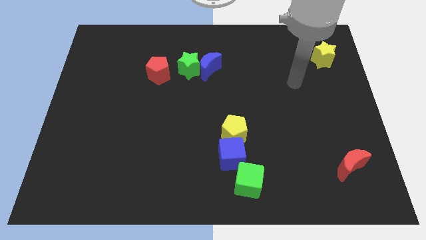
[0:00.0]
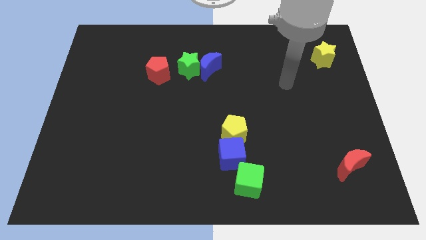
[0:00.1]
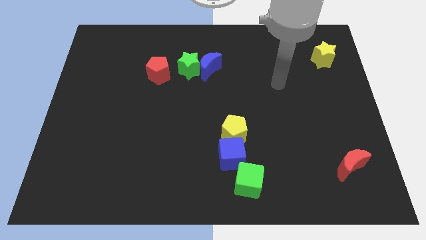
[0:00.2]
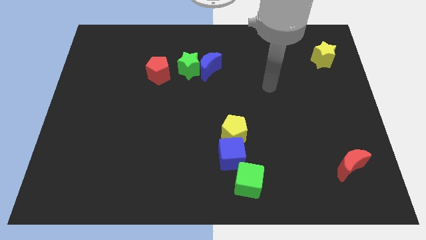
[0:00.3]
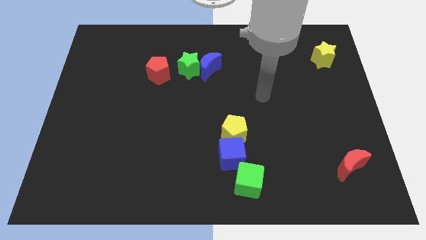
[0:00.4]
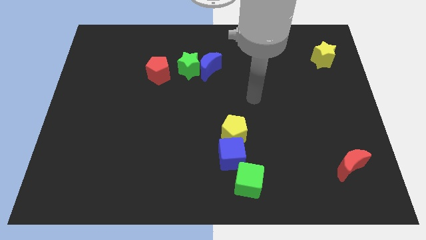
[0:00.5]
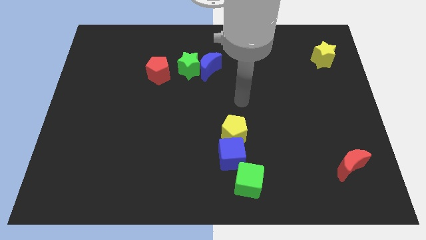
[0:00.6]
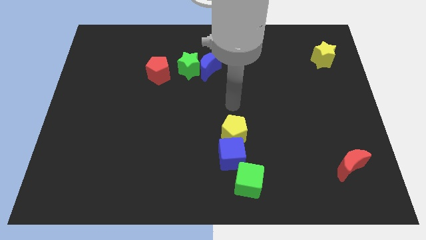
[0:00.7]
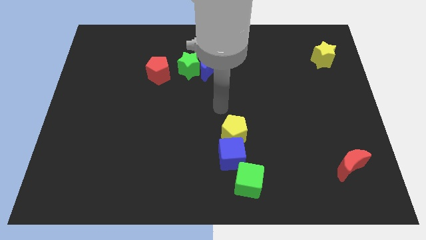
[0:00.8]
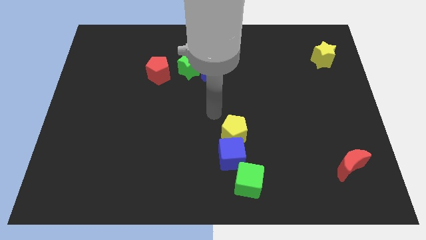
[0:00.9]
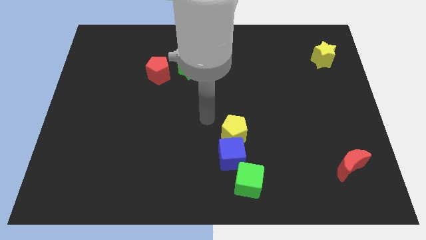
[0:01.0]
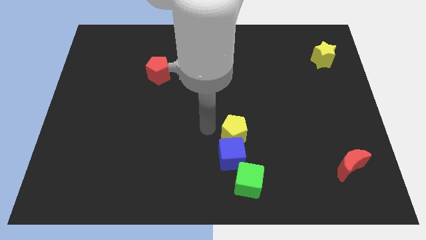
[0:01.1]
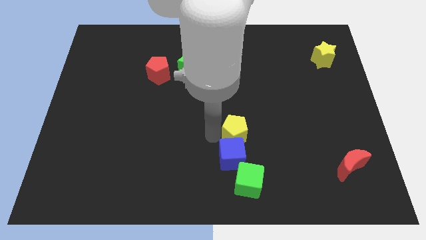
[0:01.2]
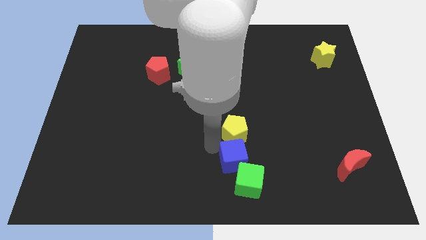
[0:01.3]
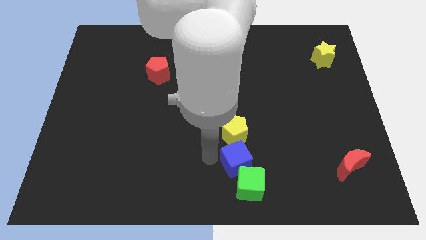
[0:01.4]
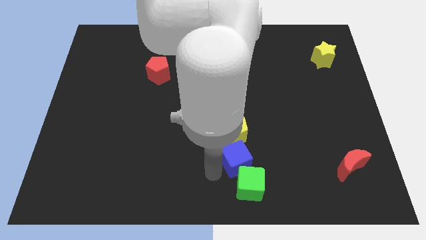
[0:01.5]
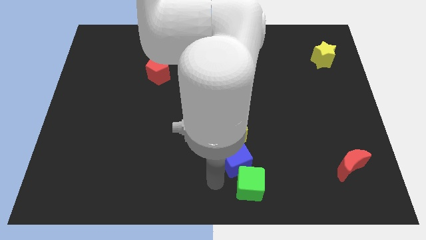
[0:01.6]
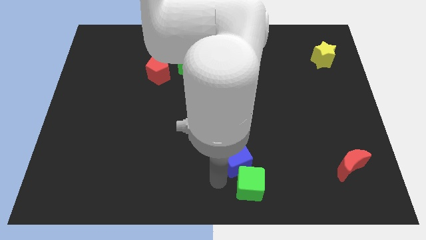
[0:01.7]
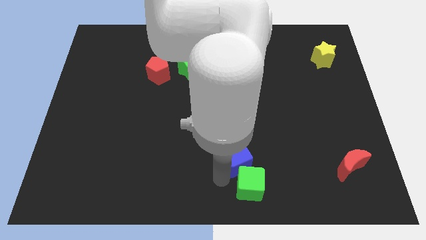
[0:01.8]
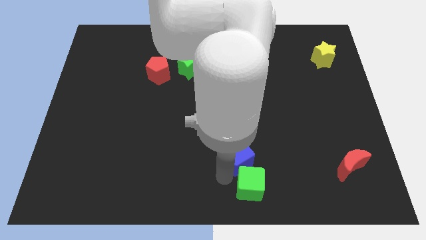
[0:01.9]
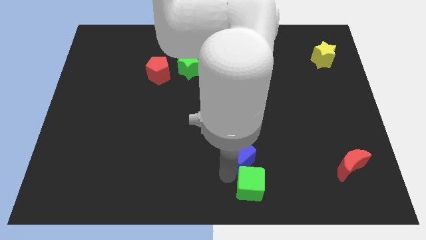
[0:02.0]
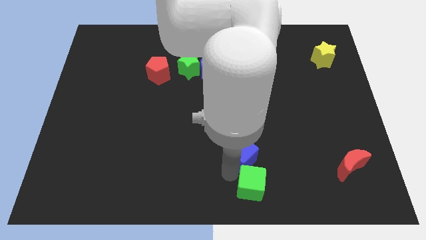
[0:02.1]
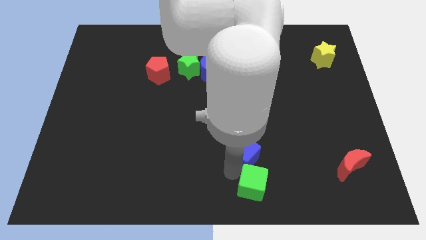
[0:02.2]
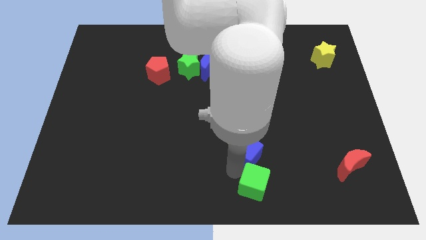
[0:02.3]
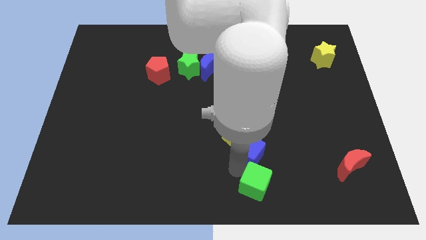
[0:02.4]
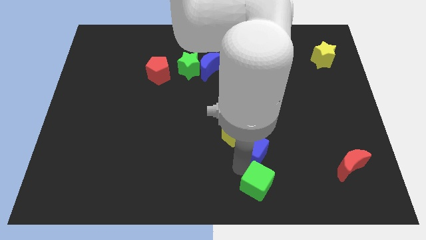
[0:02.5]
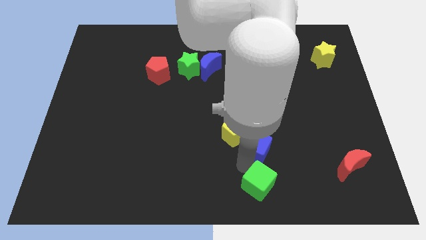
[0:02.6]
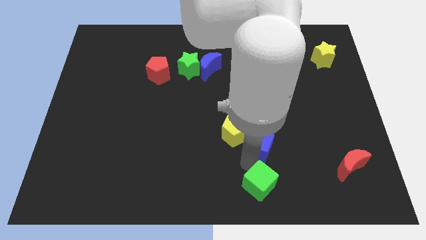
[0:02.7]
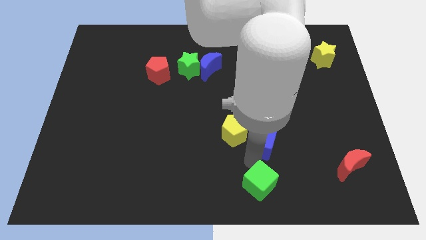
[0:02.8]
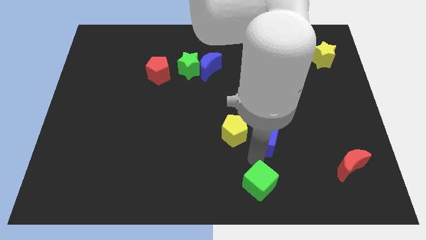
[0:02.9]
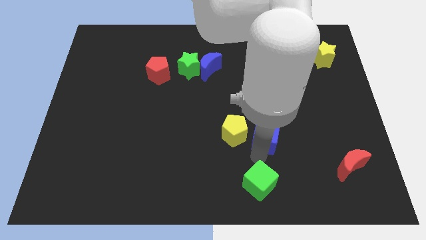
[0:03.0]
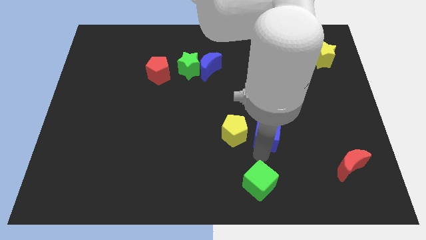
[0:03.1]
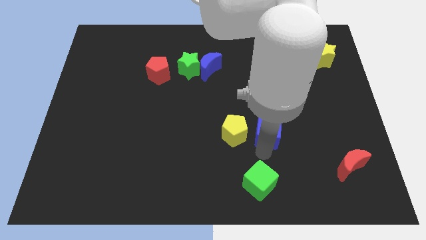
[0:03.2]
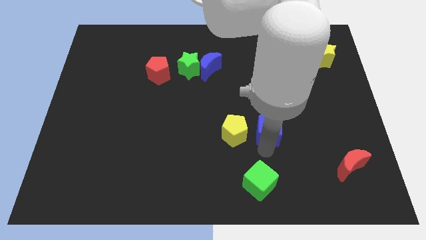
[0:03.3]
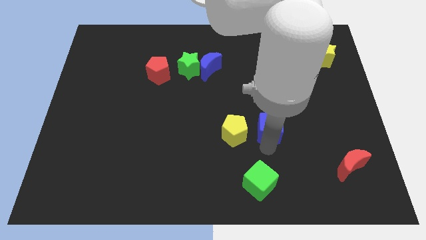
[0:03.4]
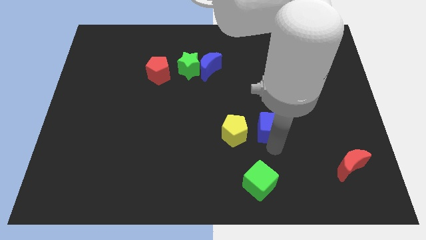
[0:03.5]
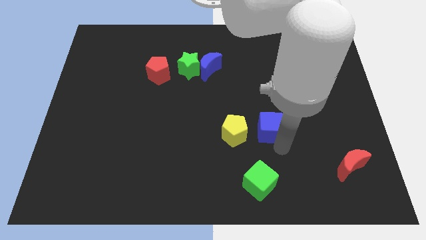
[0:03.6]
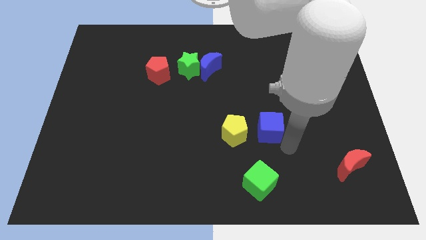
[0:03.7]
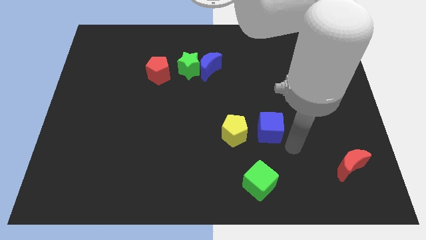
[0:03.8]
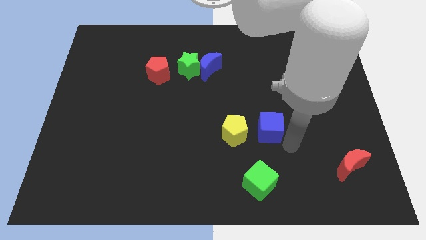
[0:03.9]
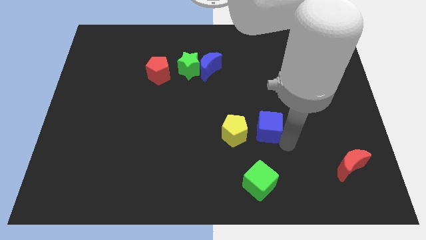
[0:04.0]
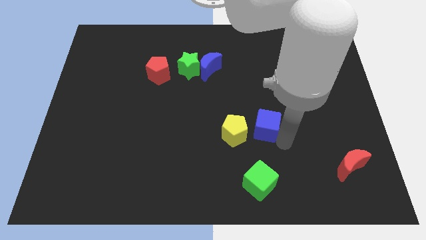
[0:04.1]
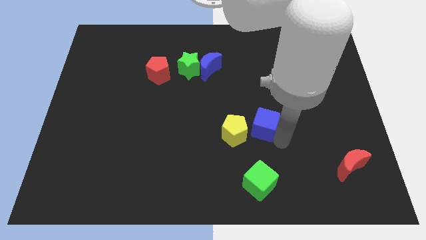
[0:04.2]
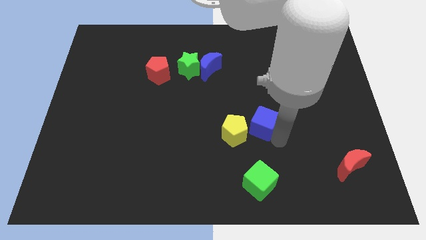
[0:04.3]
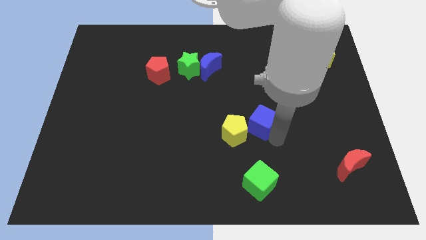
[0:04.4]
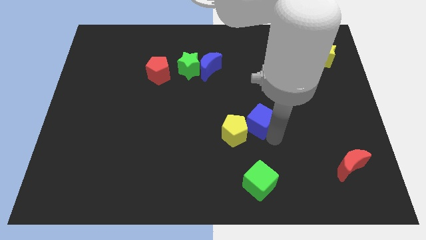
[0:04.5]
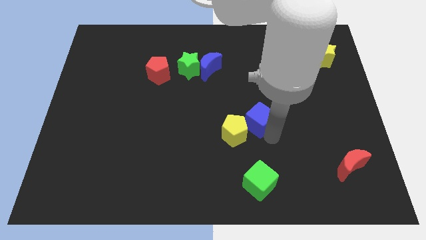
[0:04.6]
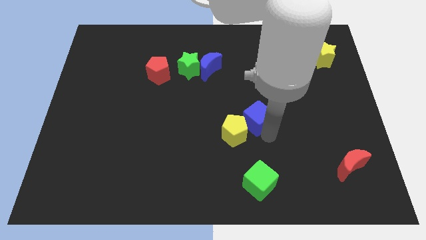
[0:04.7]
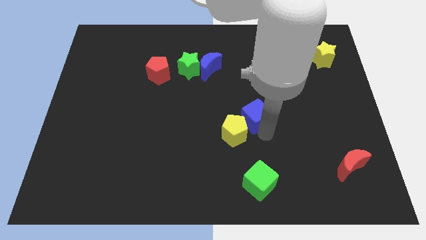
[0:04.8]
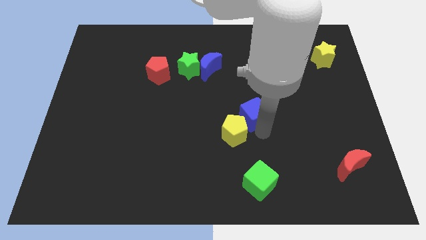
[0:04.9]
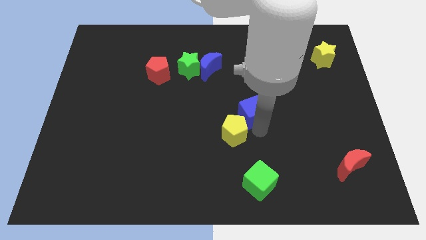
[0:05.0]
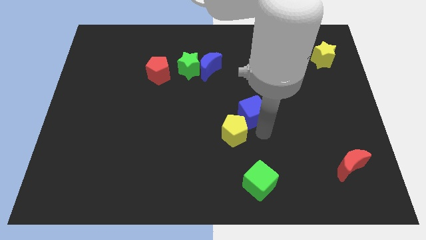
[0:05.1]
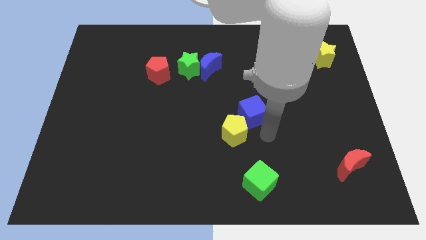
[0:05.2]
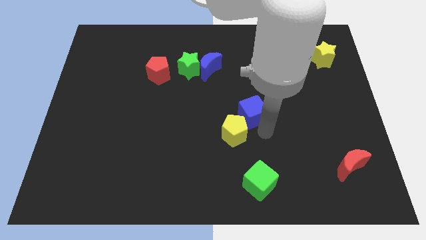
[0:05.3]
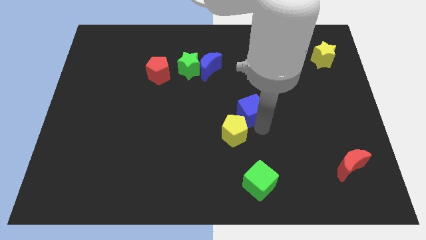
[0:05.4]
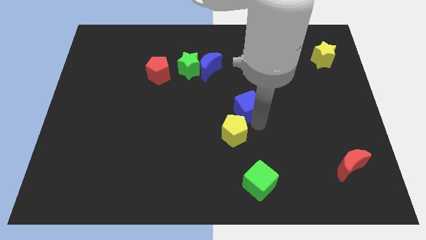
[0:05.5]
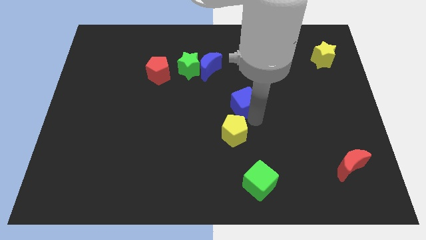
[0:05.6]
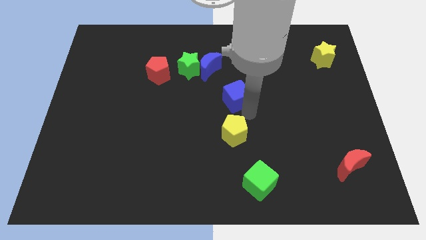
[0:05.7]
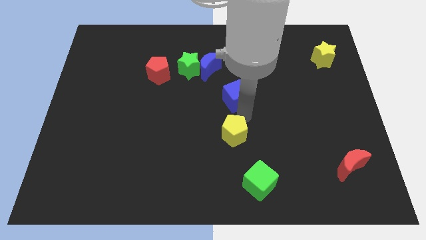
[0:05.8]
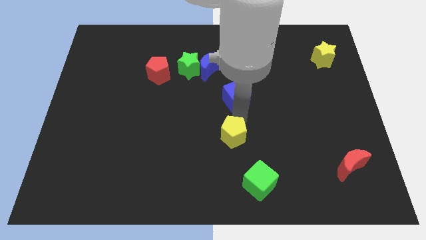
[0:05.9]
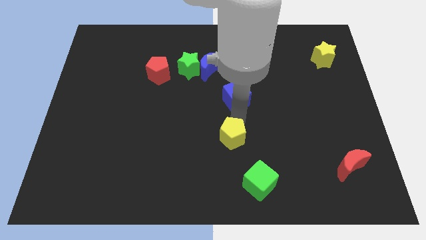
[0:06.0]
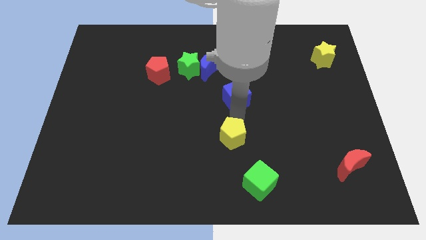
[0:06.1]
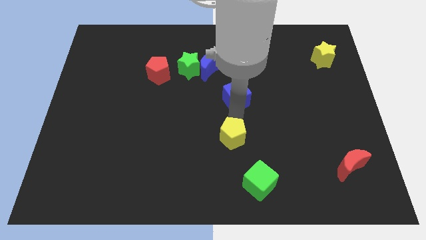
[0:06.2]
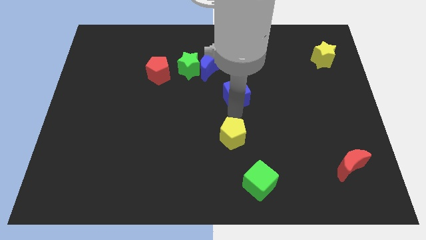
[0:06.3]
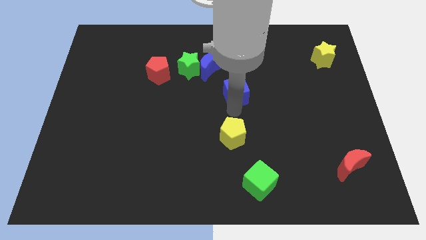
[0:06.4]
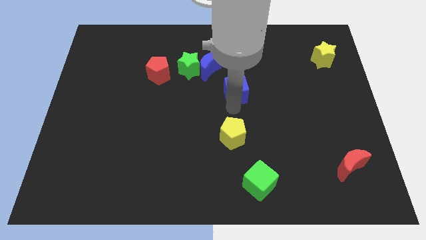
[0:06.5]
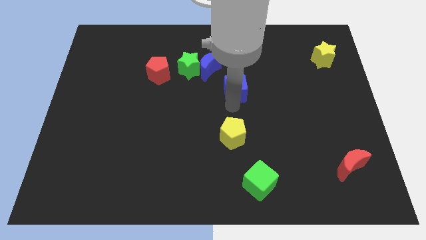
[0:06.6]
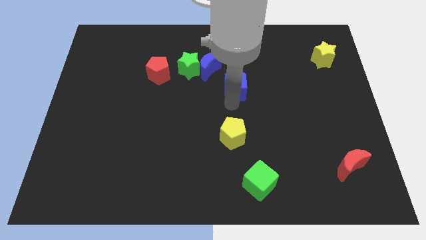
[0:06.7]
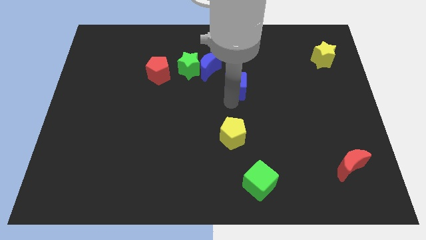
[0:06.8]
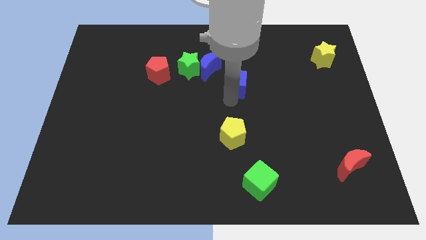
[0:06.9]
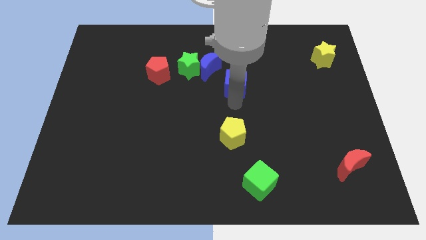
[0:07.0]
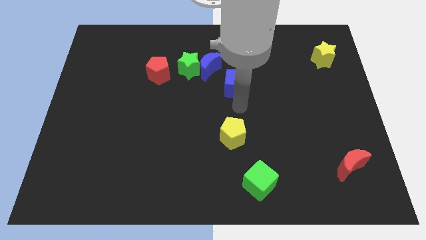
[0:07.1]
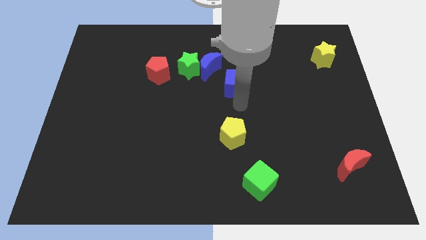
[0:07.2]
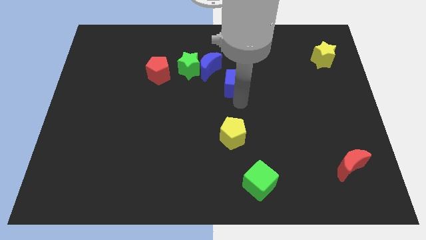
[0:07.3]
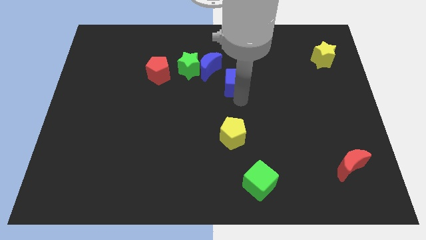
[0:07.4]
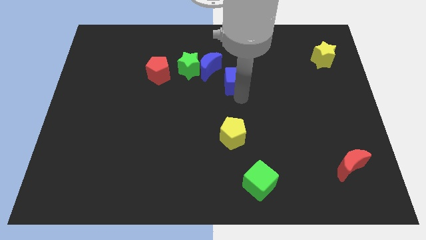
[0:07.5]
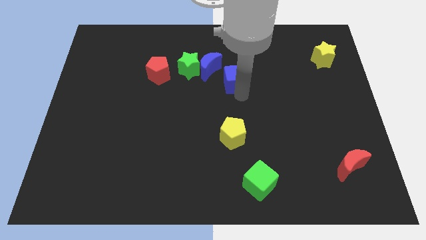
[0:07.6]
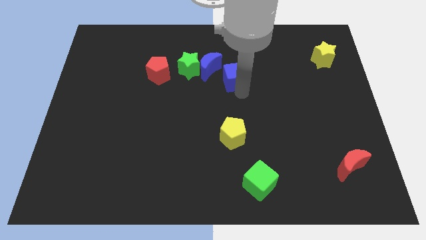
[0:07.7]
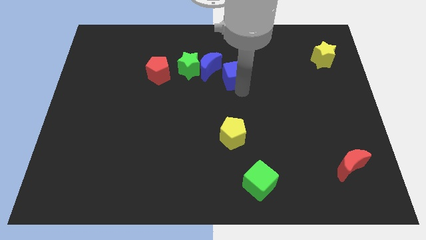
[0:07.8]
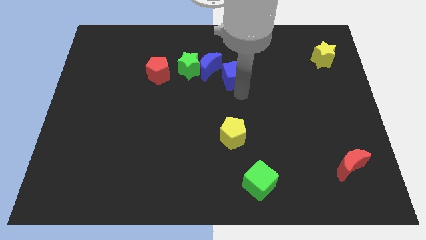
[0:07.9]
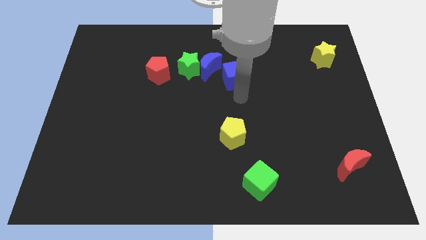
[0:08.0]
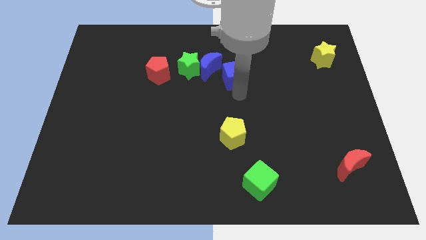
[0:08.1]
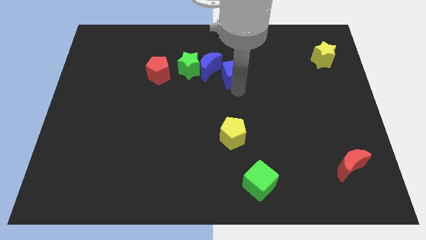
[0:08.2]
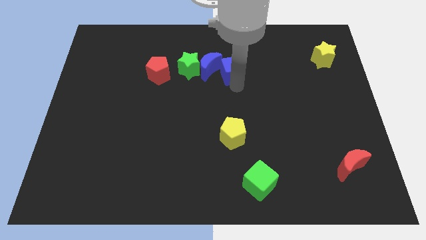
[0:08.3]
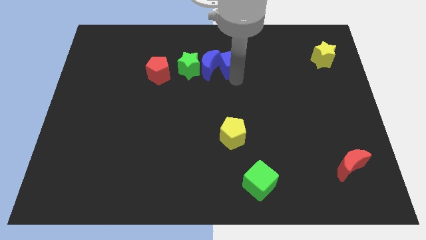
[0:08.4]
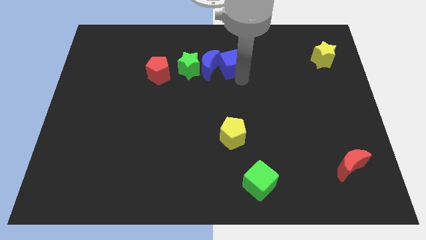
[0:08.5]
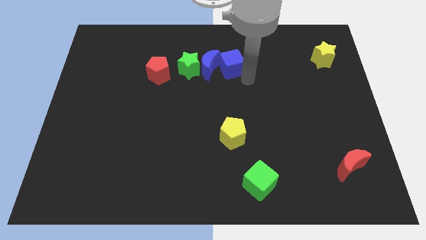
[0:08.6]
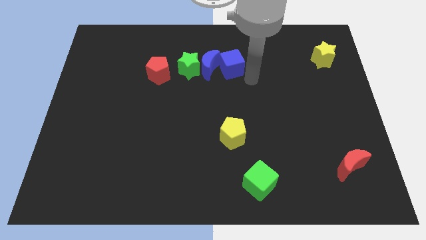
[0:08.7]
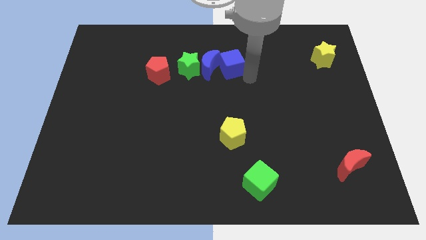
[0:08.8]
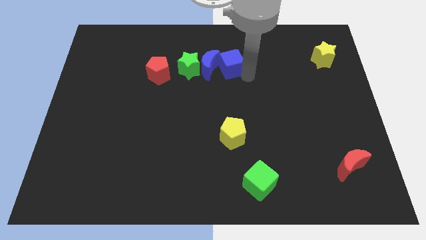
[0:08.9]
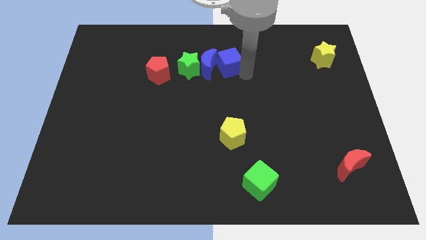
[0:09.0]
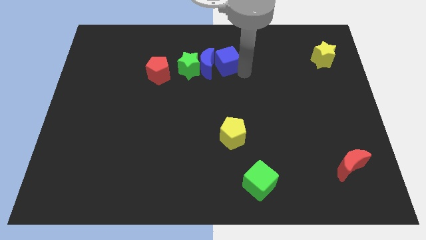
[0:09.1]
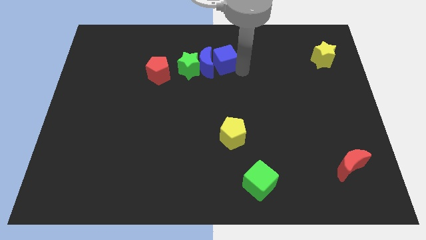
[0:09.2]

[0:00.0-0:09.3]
move the blue cube diagonally up and to the right of the green star
